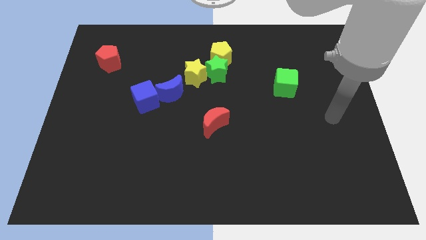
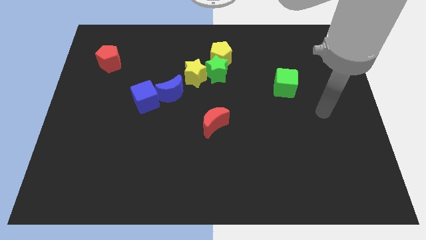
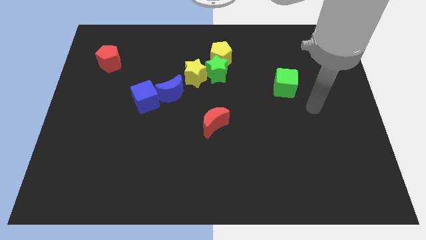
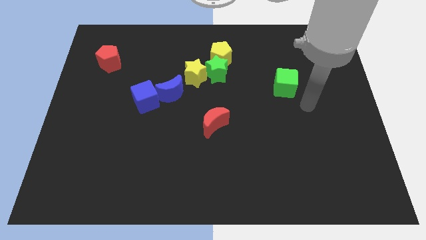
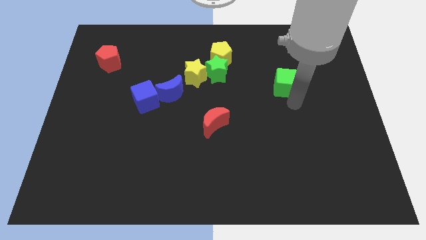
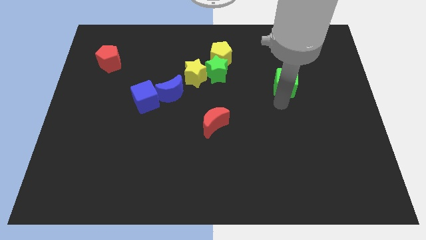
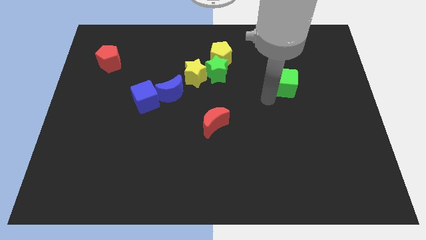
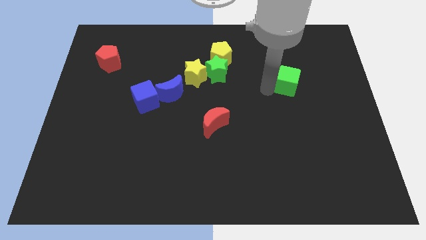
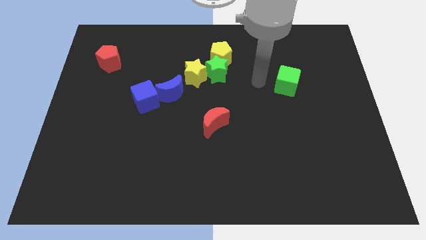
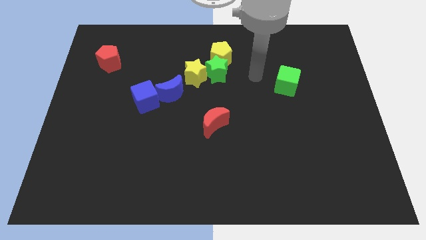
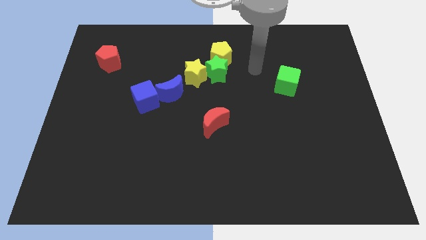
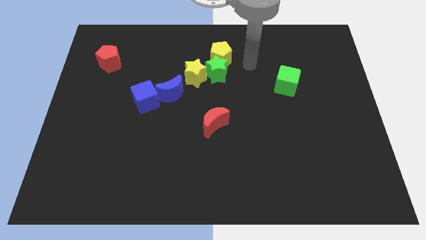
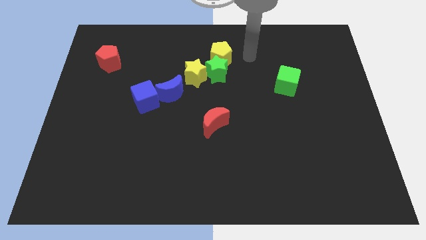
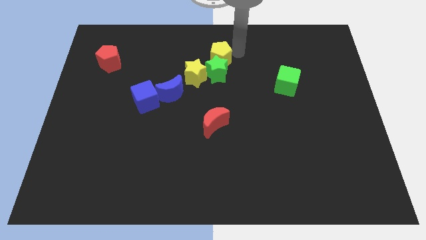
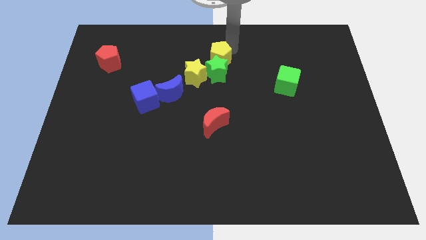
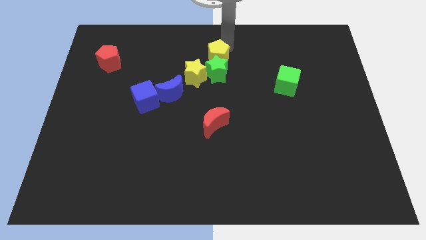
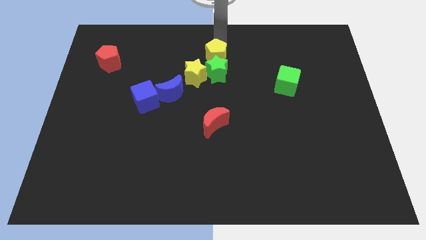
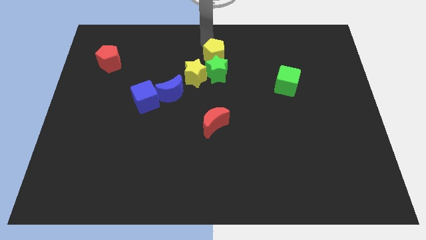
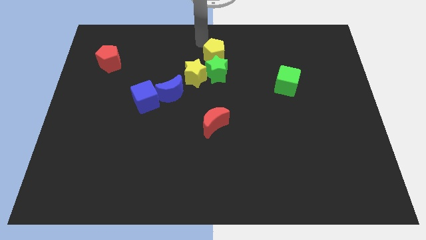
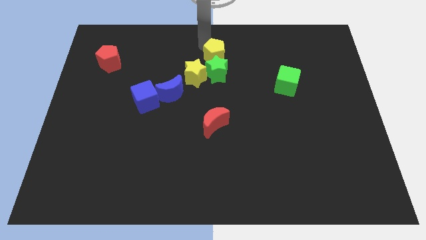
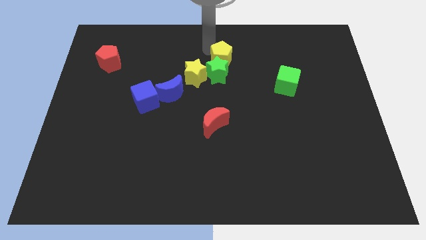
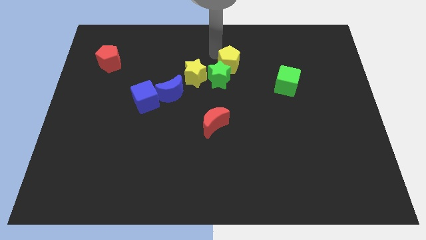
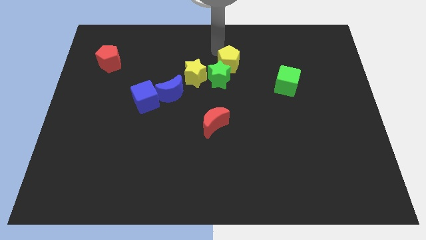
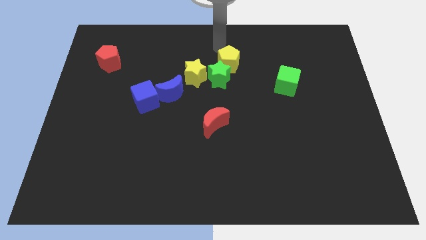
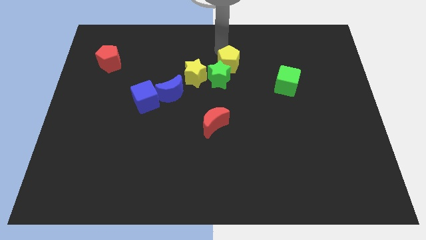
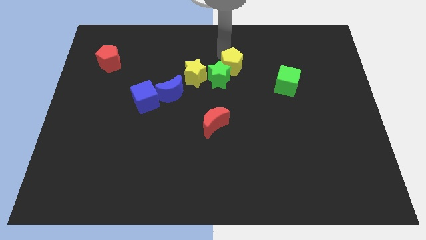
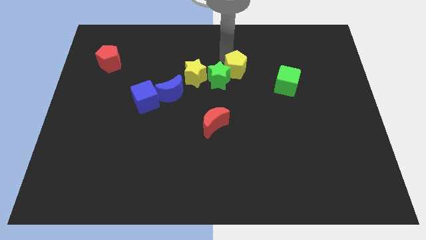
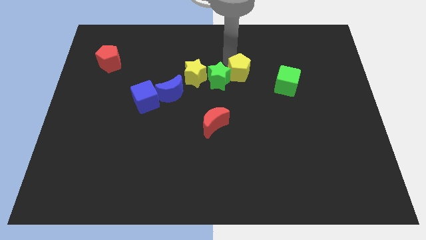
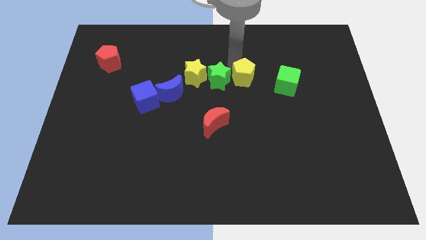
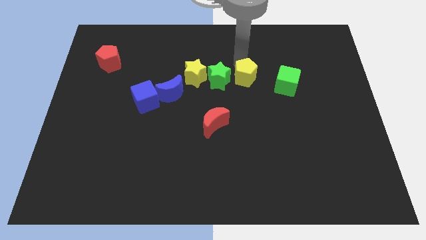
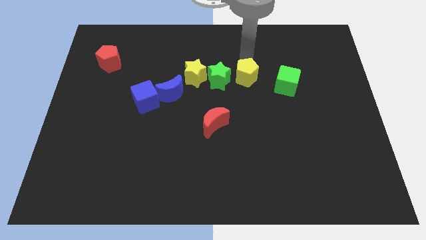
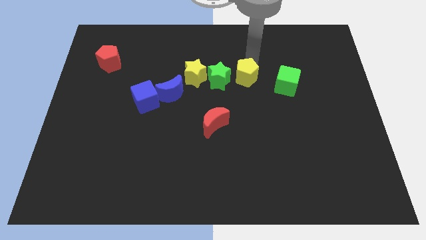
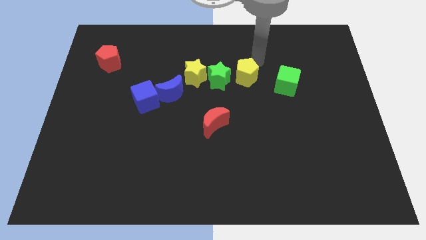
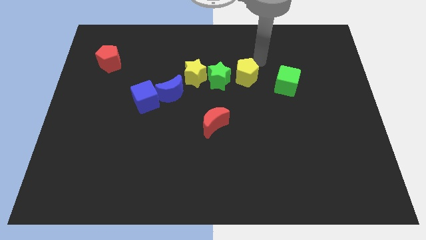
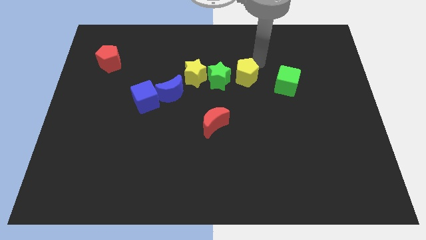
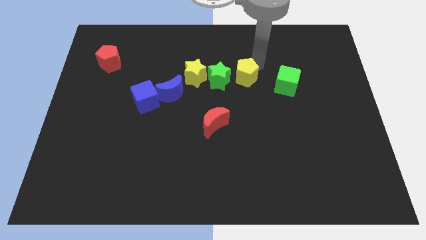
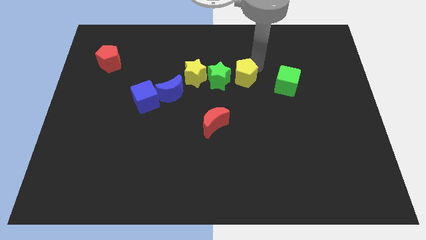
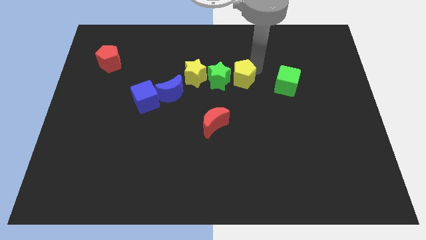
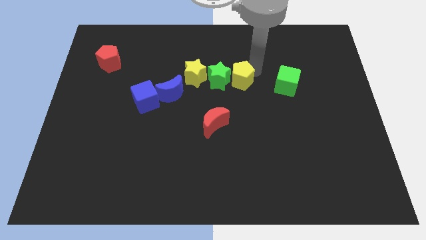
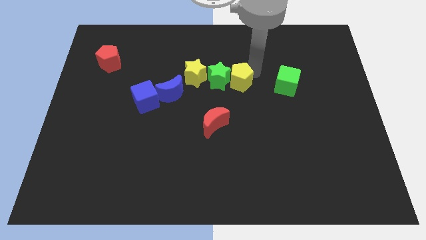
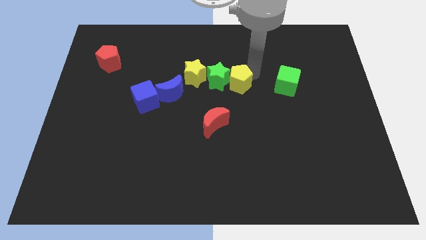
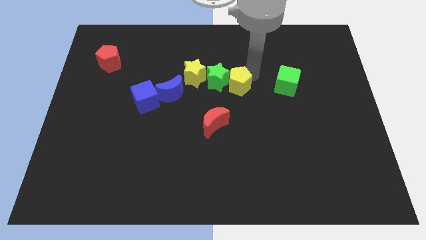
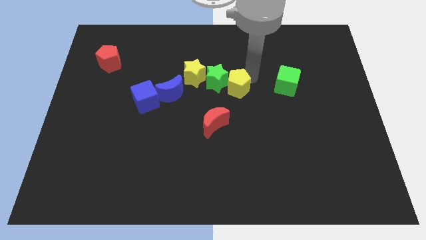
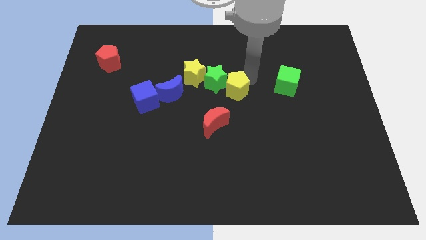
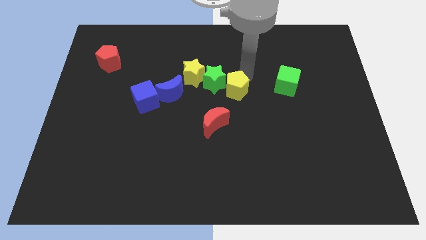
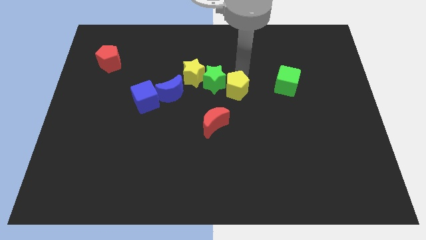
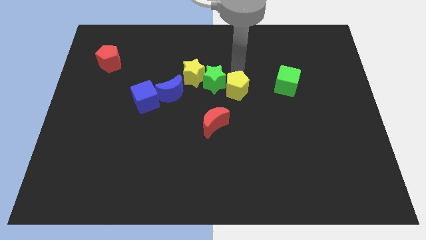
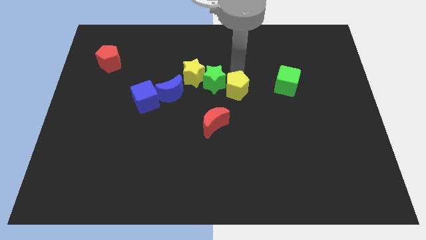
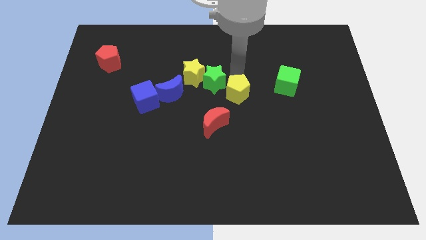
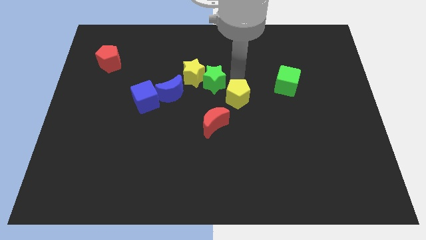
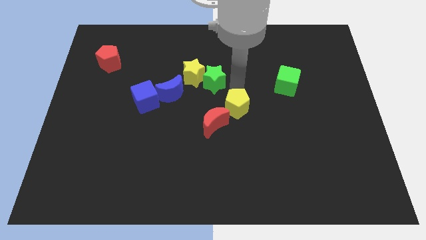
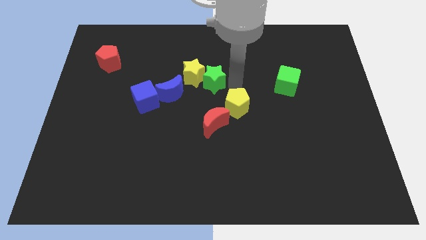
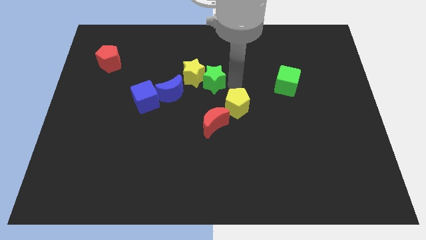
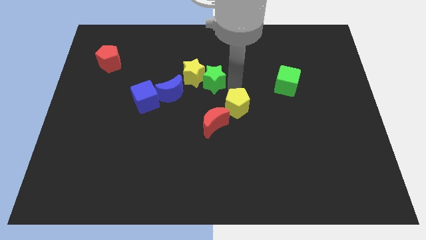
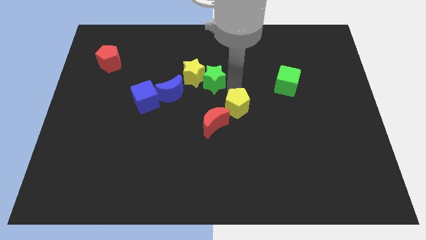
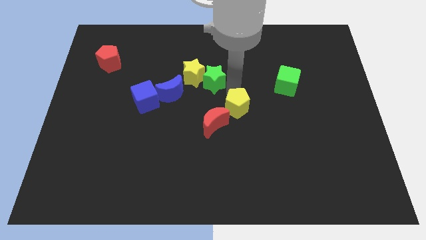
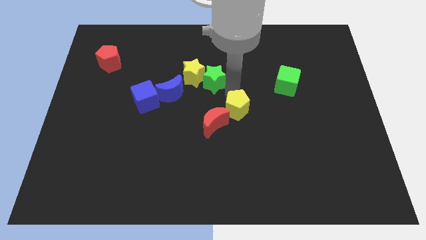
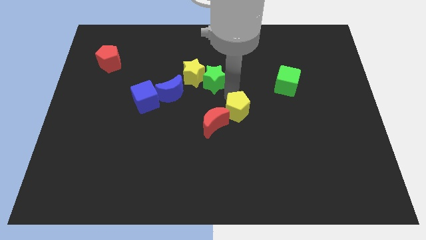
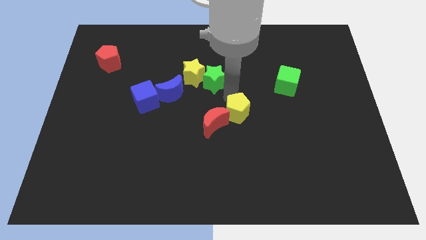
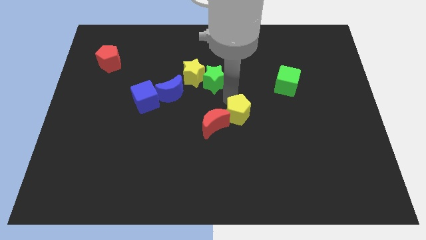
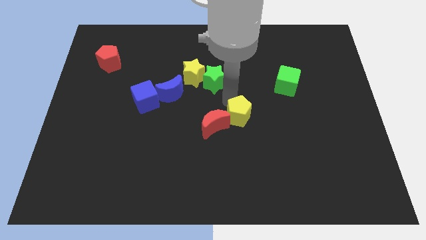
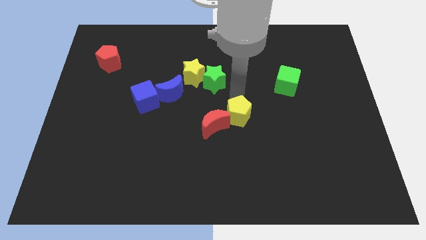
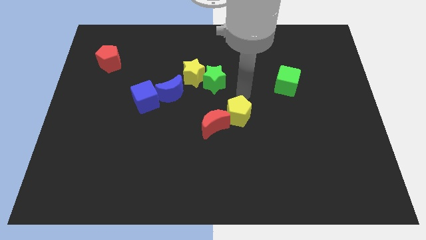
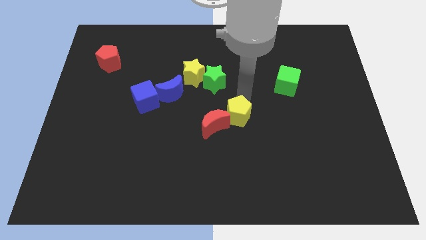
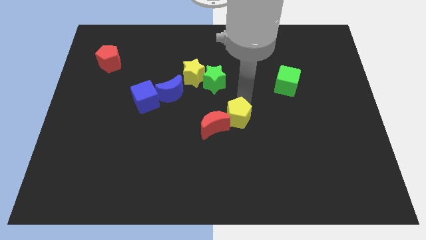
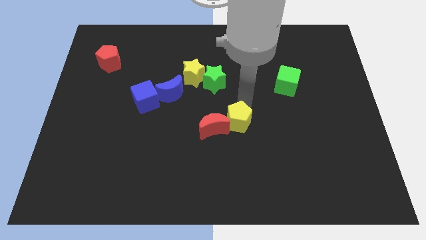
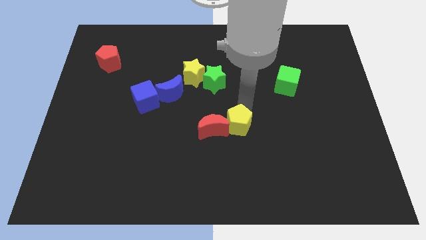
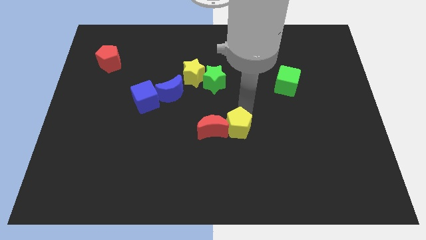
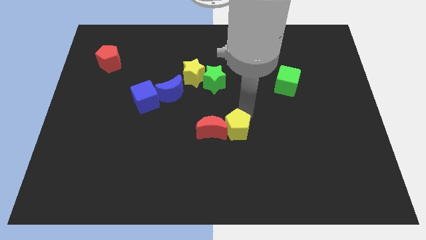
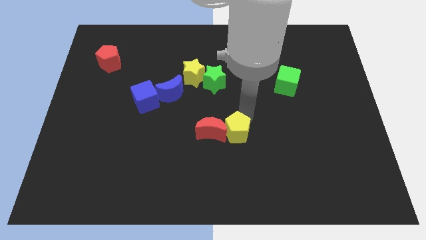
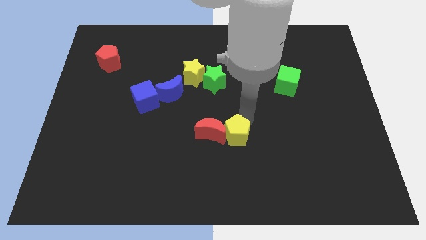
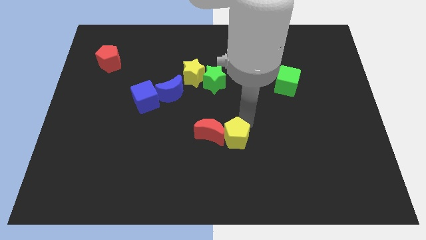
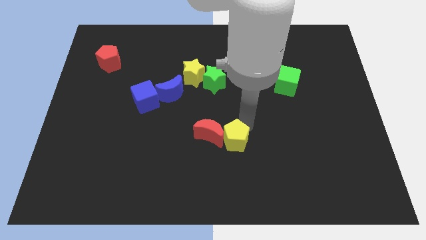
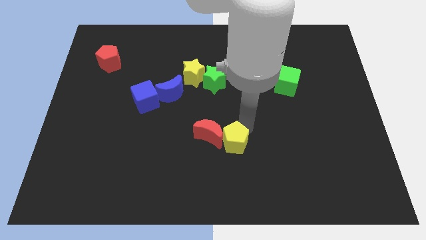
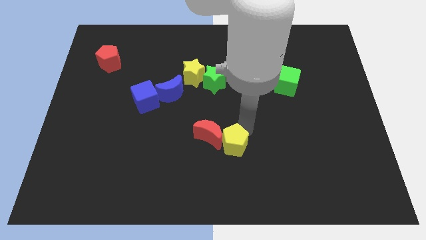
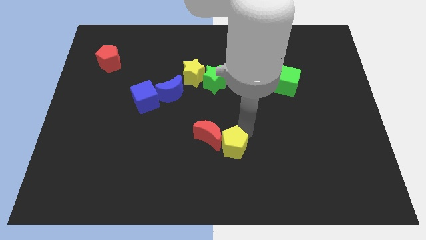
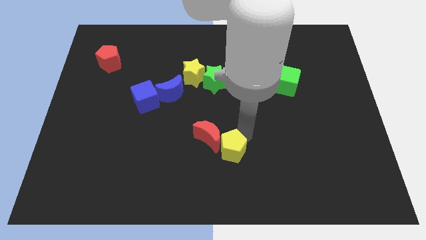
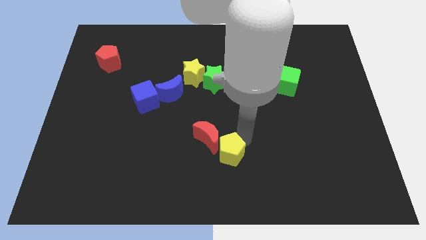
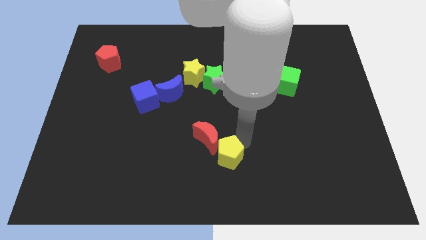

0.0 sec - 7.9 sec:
slide the yellow pentagon to the bottom side
